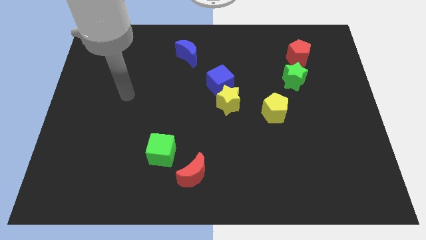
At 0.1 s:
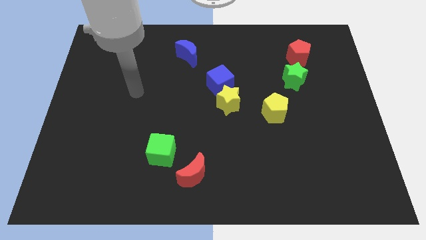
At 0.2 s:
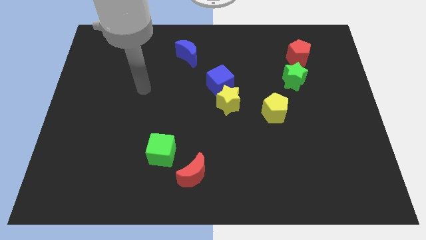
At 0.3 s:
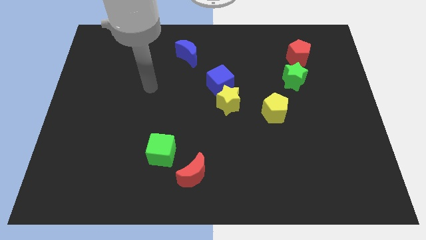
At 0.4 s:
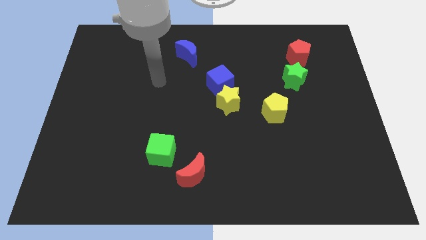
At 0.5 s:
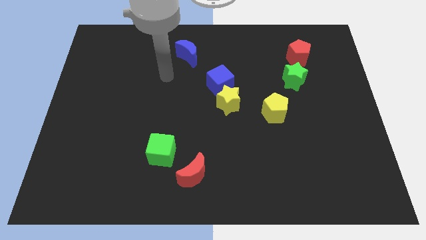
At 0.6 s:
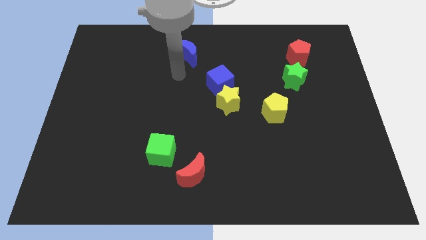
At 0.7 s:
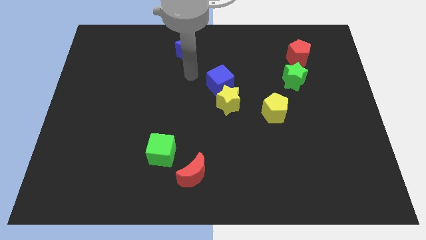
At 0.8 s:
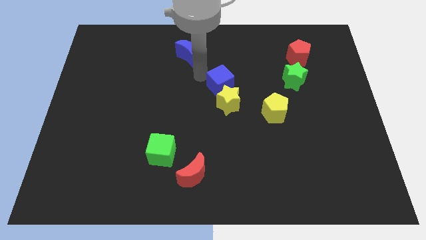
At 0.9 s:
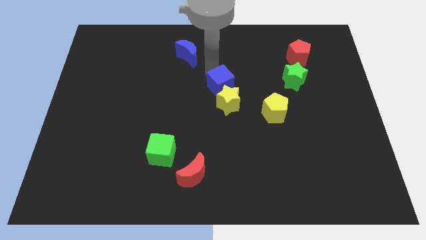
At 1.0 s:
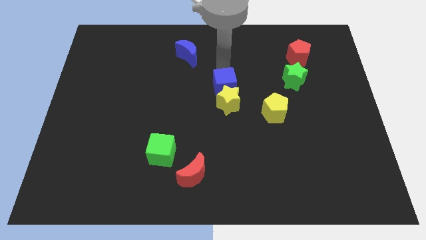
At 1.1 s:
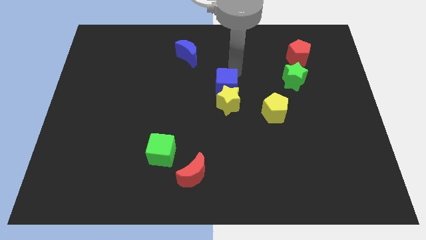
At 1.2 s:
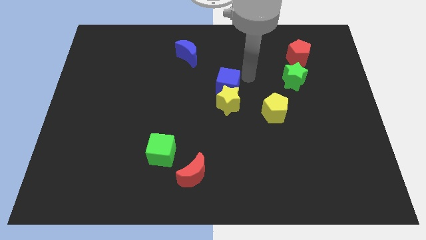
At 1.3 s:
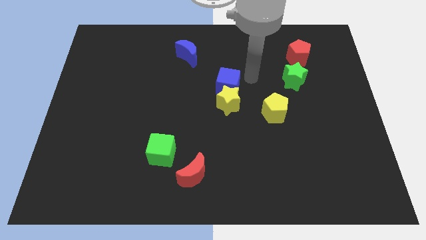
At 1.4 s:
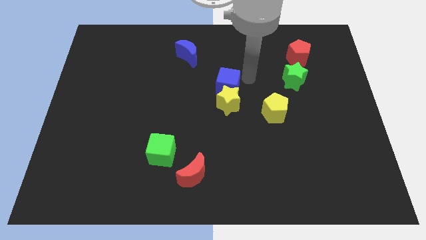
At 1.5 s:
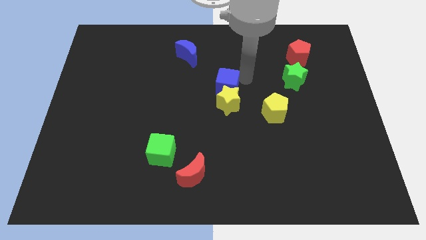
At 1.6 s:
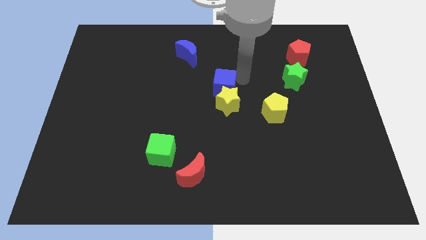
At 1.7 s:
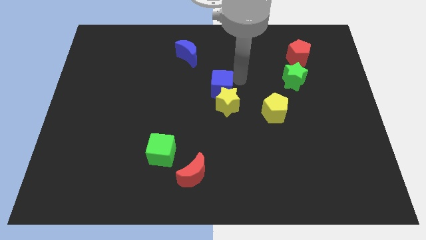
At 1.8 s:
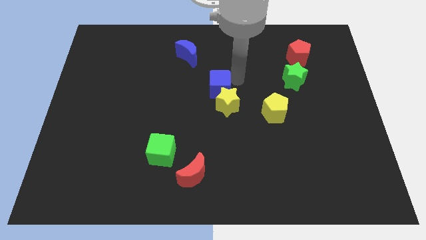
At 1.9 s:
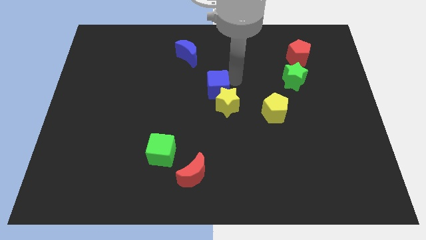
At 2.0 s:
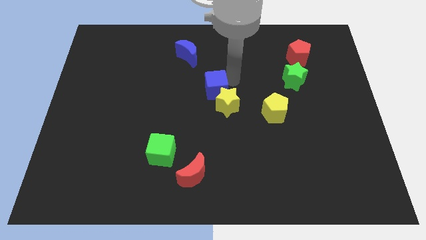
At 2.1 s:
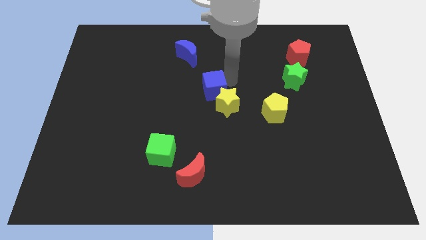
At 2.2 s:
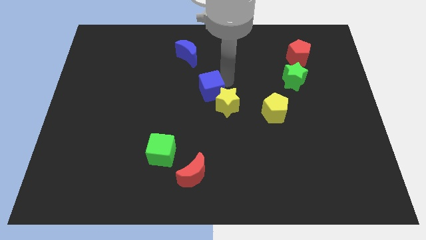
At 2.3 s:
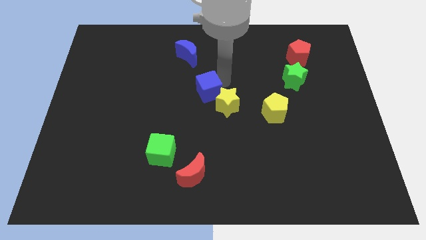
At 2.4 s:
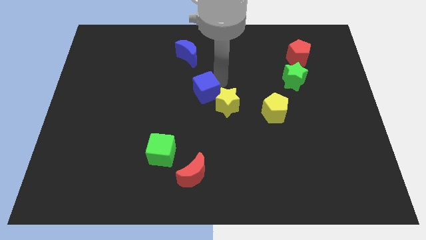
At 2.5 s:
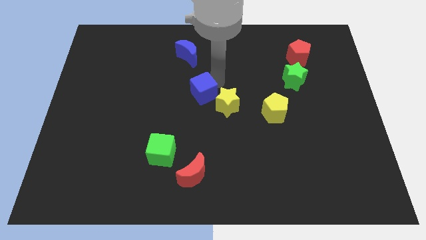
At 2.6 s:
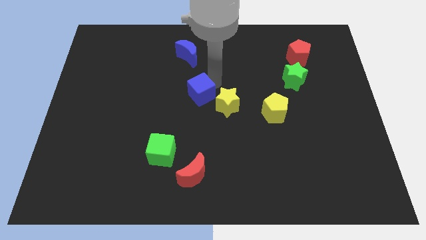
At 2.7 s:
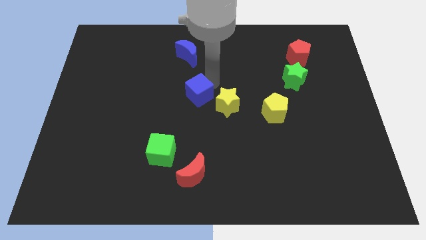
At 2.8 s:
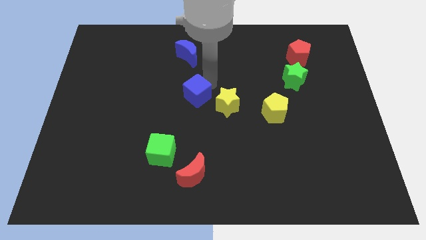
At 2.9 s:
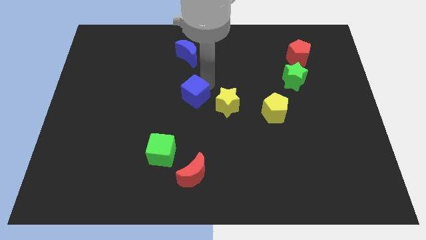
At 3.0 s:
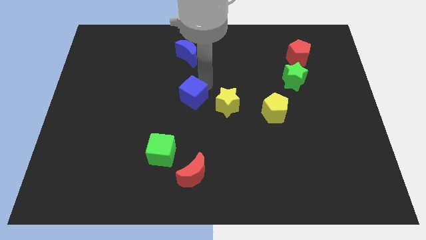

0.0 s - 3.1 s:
slightly move the blue cube downwards and left diagonally

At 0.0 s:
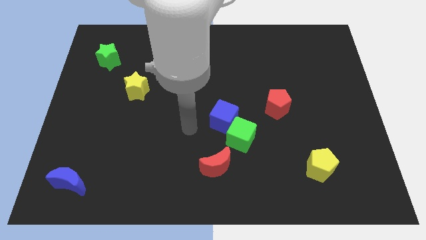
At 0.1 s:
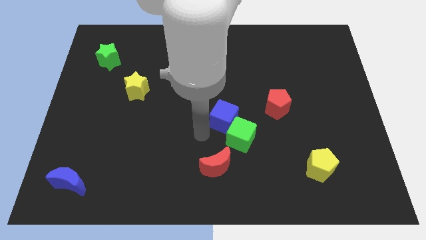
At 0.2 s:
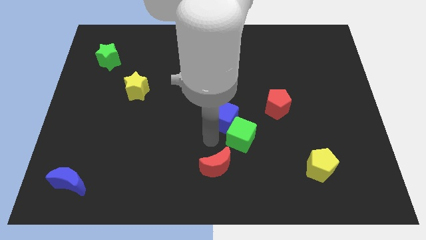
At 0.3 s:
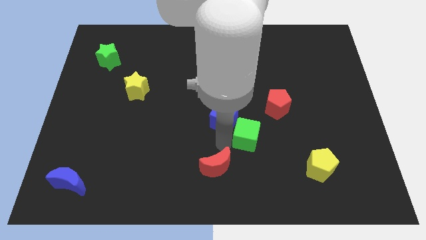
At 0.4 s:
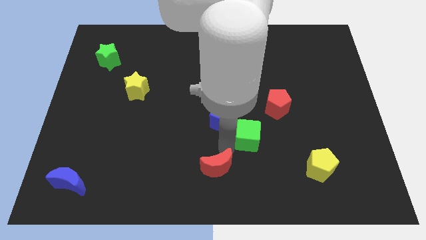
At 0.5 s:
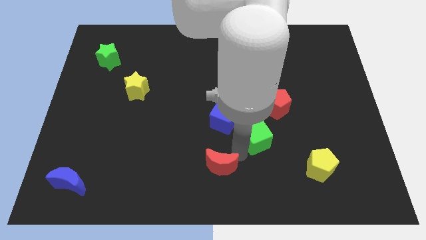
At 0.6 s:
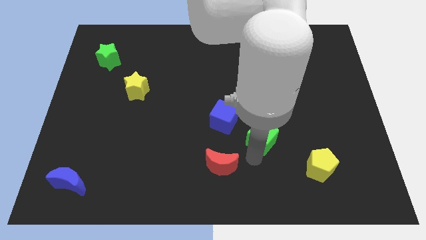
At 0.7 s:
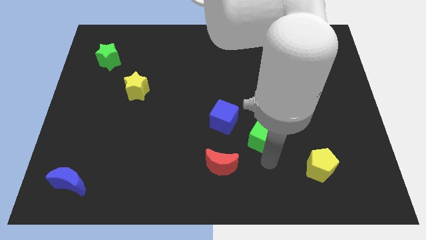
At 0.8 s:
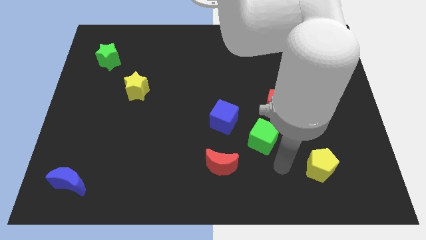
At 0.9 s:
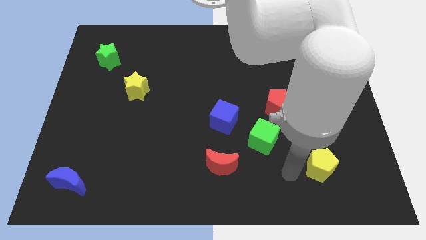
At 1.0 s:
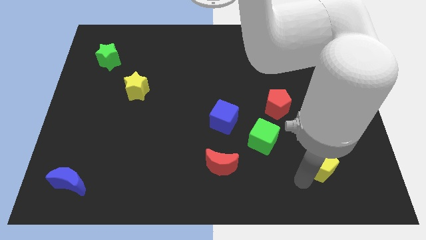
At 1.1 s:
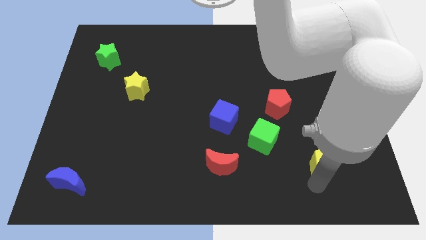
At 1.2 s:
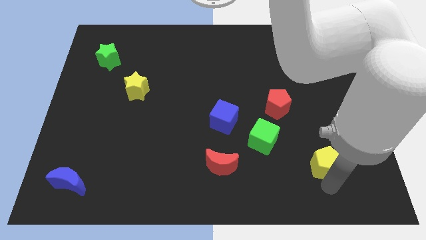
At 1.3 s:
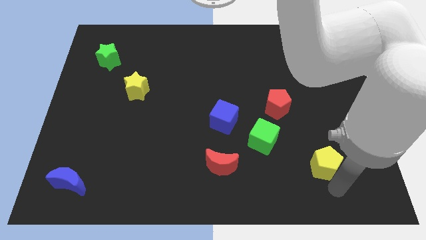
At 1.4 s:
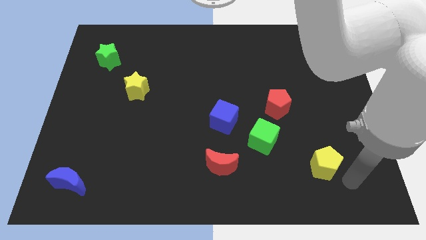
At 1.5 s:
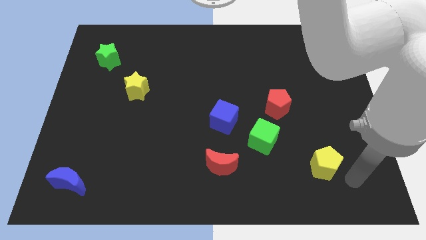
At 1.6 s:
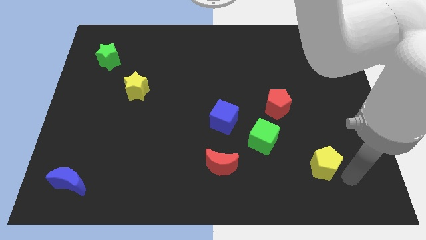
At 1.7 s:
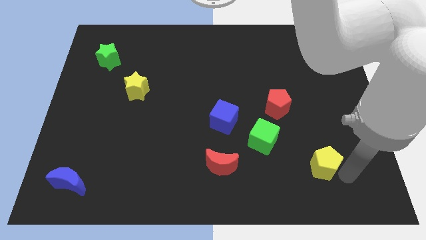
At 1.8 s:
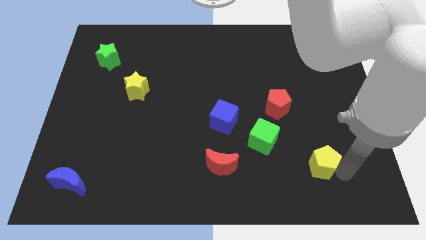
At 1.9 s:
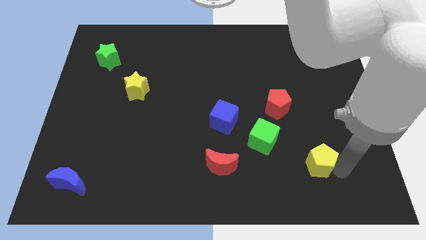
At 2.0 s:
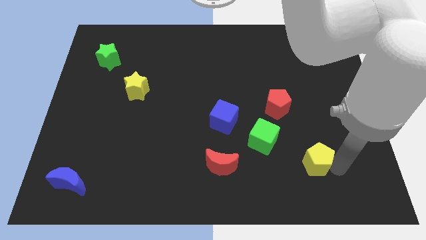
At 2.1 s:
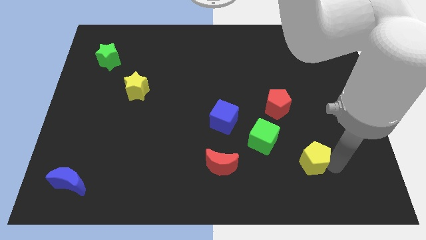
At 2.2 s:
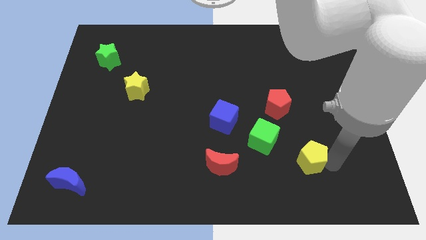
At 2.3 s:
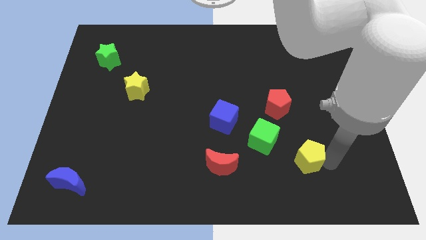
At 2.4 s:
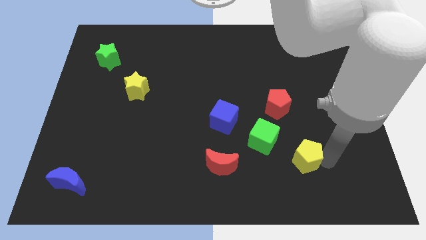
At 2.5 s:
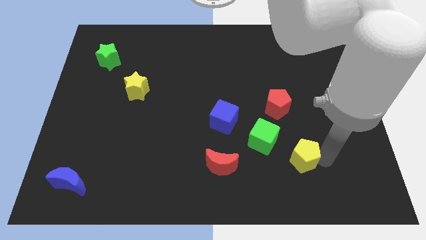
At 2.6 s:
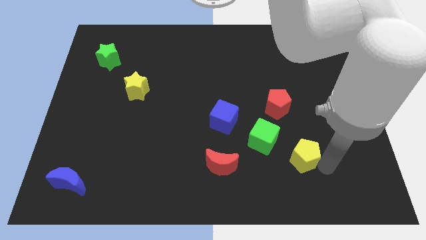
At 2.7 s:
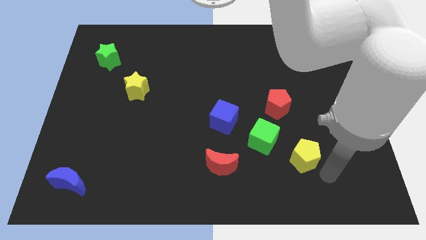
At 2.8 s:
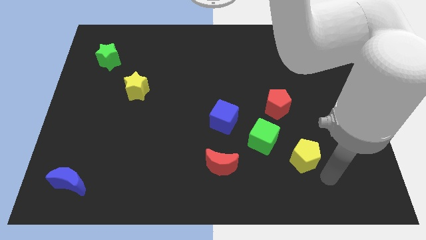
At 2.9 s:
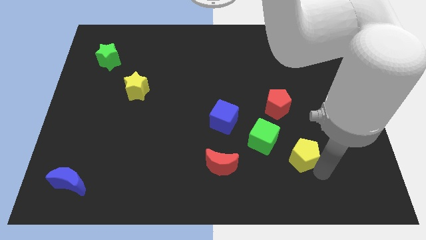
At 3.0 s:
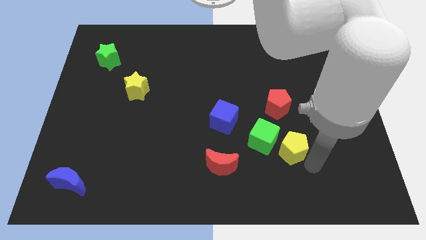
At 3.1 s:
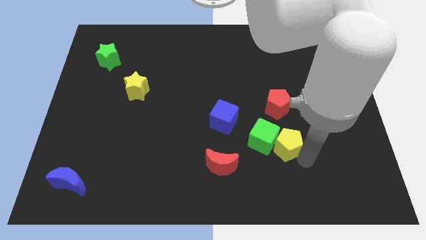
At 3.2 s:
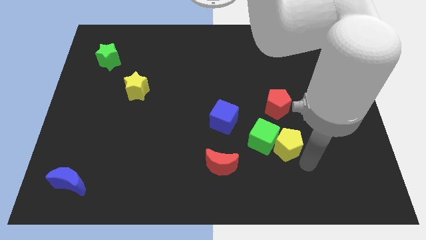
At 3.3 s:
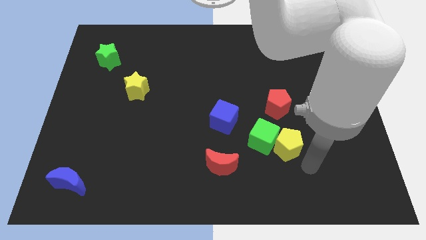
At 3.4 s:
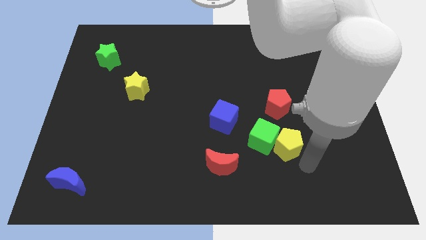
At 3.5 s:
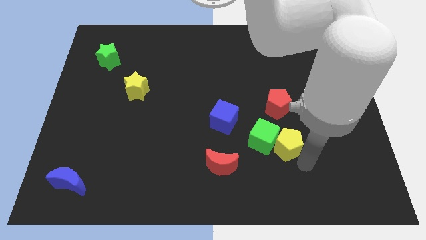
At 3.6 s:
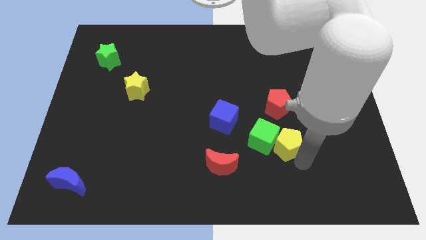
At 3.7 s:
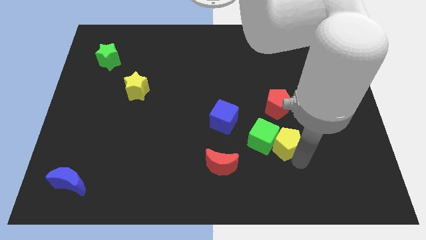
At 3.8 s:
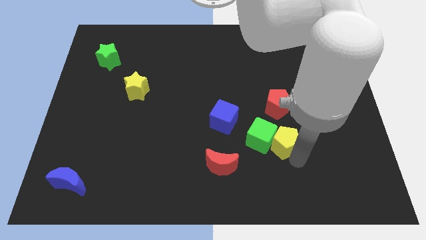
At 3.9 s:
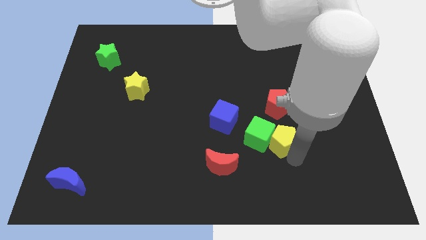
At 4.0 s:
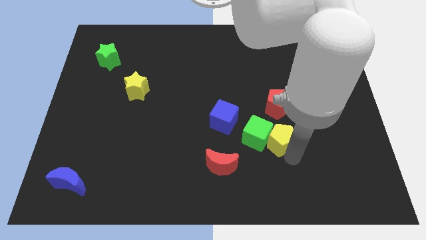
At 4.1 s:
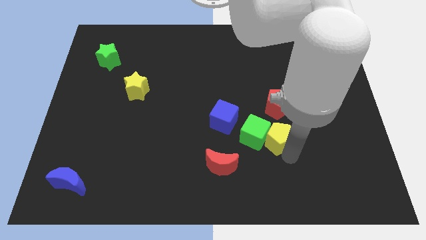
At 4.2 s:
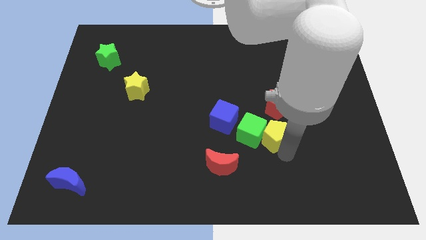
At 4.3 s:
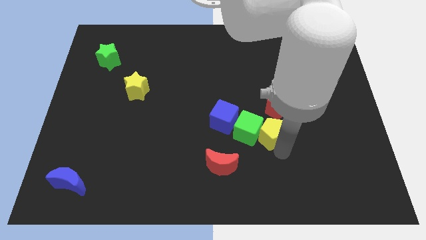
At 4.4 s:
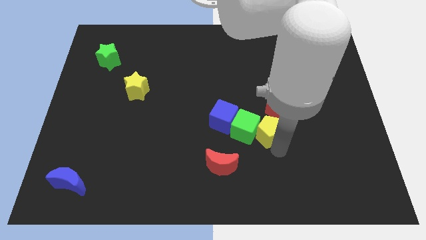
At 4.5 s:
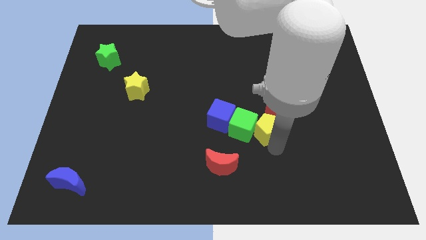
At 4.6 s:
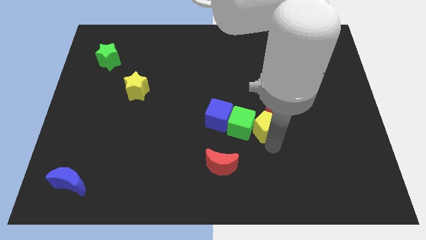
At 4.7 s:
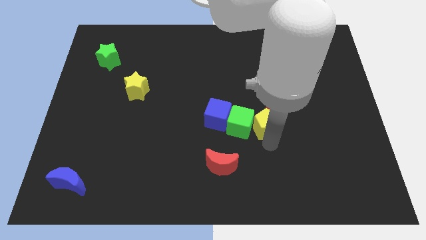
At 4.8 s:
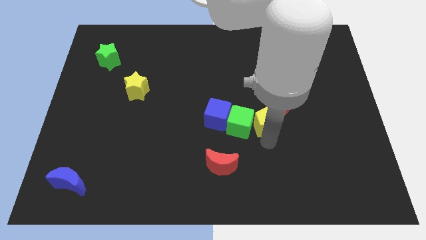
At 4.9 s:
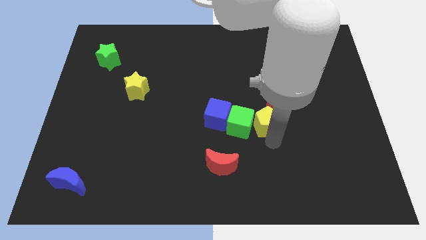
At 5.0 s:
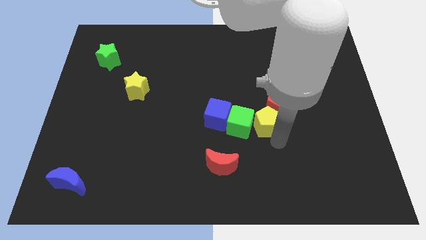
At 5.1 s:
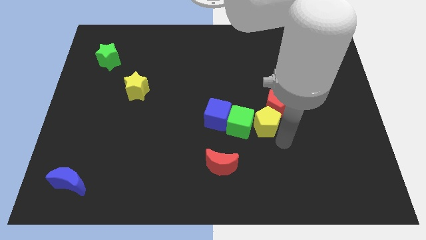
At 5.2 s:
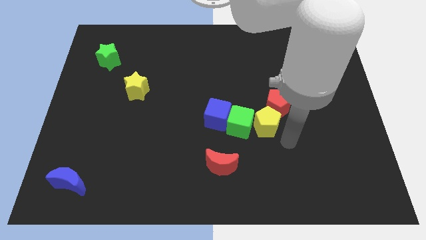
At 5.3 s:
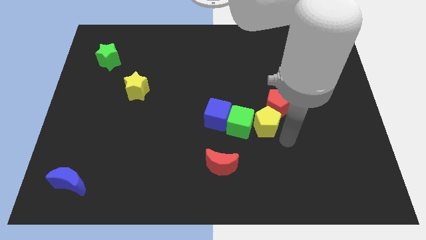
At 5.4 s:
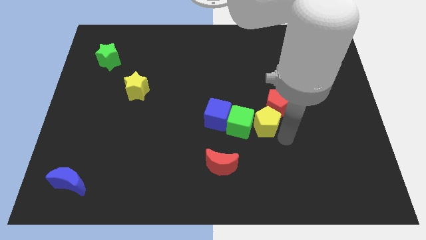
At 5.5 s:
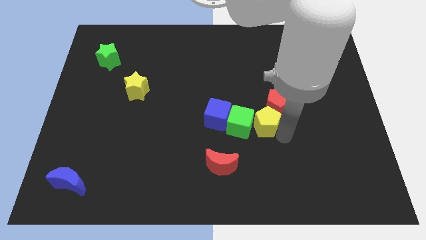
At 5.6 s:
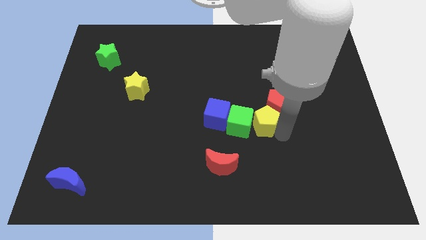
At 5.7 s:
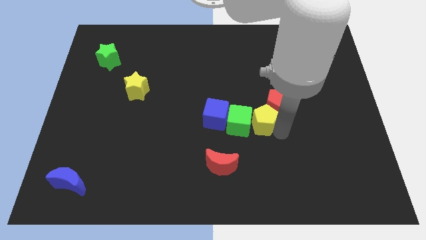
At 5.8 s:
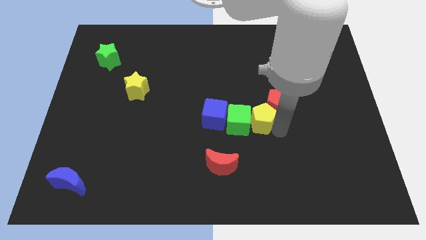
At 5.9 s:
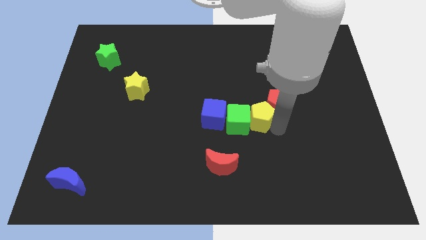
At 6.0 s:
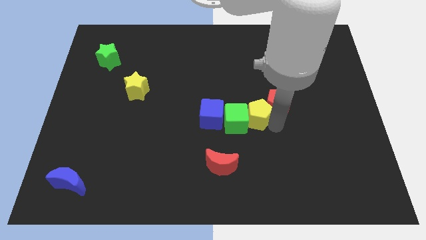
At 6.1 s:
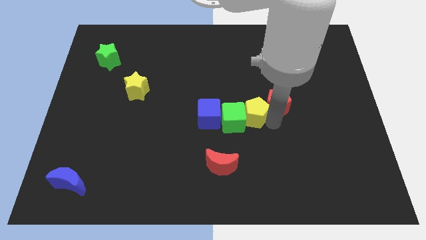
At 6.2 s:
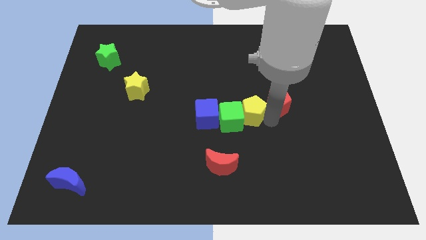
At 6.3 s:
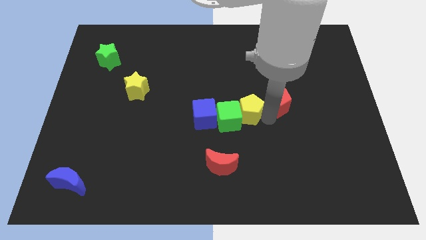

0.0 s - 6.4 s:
push the yellow pentagon upwards and to the left
